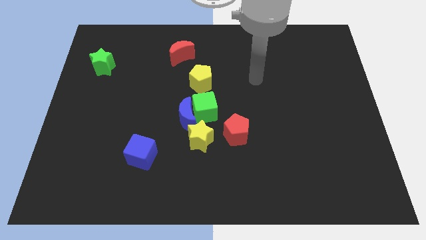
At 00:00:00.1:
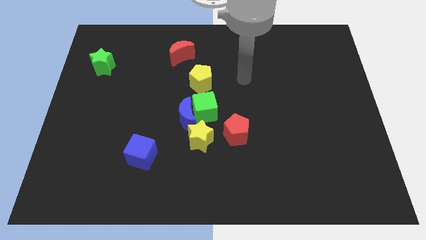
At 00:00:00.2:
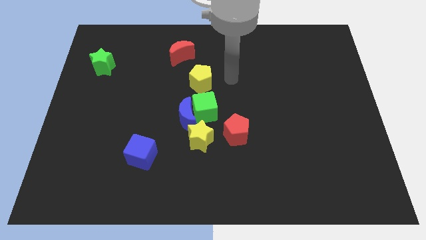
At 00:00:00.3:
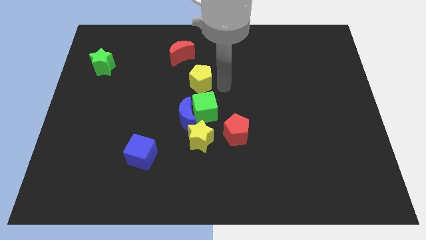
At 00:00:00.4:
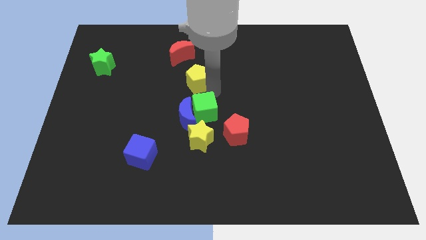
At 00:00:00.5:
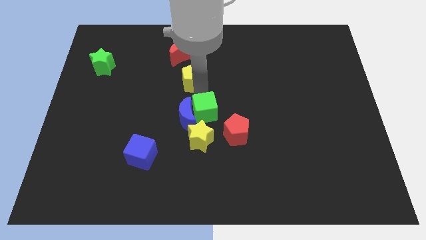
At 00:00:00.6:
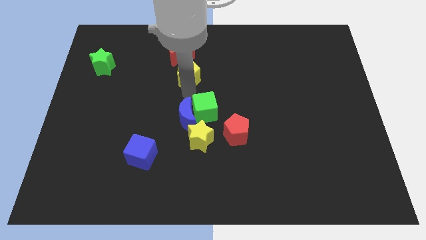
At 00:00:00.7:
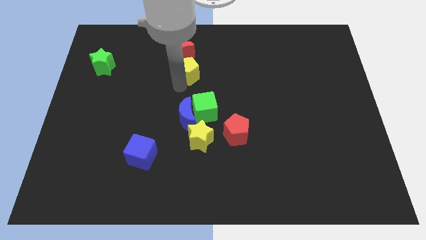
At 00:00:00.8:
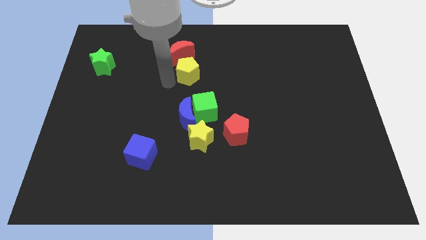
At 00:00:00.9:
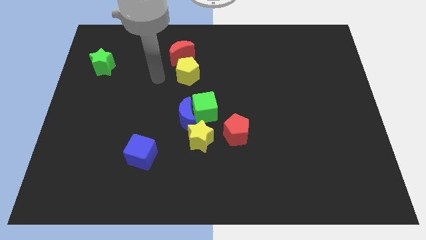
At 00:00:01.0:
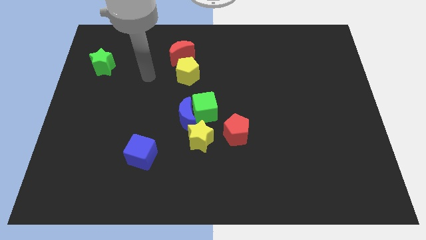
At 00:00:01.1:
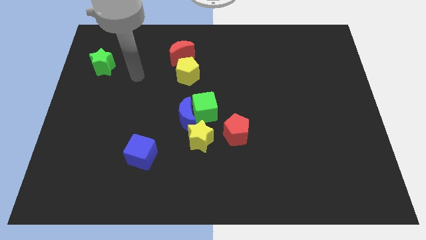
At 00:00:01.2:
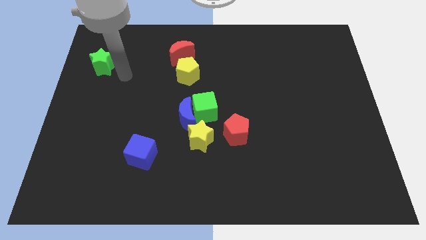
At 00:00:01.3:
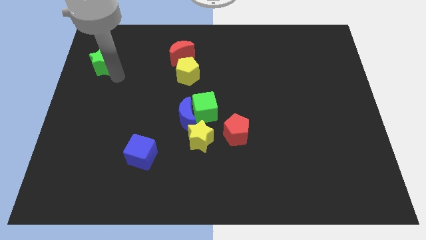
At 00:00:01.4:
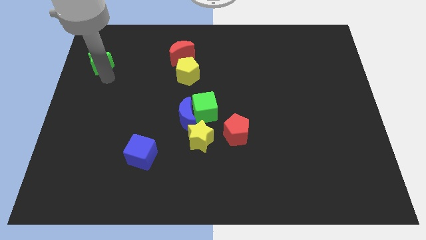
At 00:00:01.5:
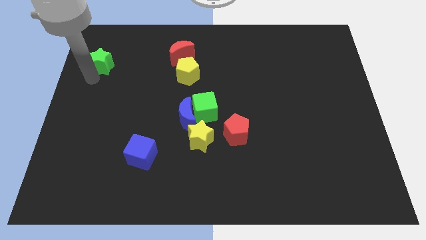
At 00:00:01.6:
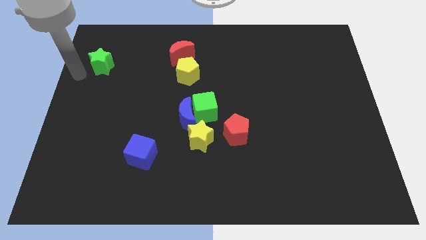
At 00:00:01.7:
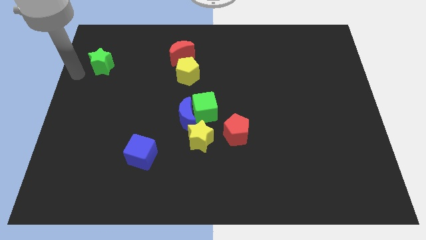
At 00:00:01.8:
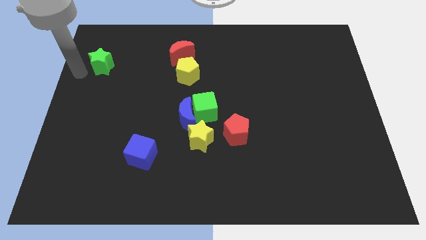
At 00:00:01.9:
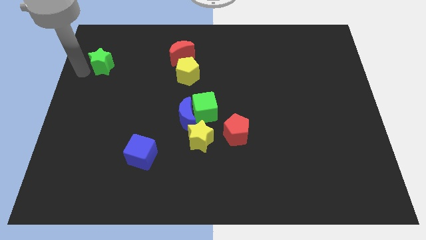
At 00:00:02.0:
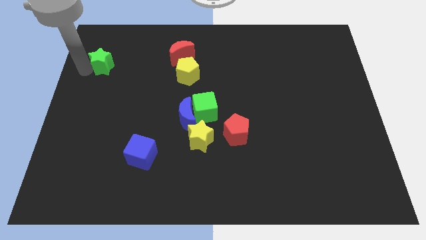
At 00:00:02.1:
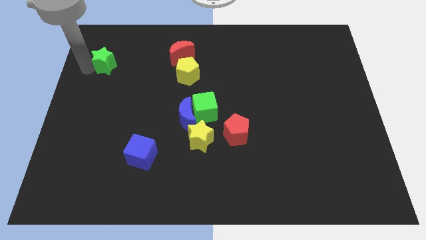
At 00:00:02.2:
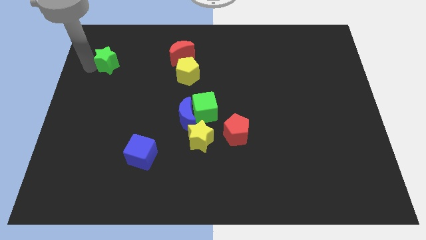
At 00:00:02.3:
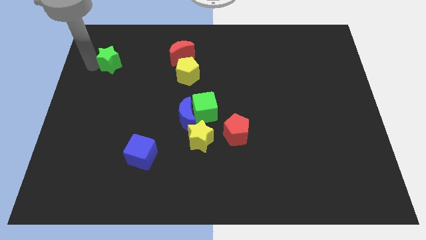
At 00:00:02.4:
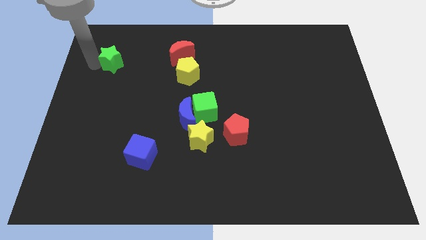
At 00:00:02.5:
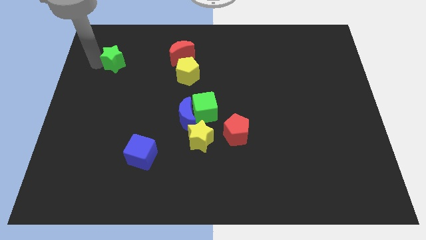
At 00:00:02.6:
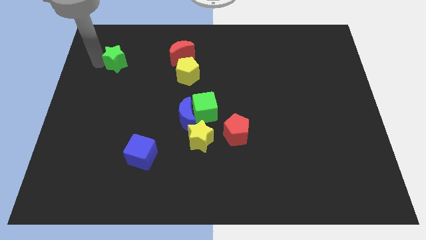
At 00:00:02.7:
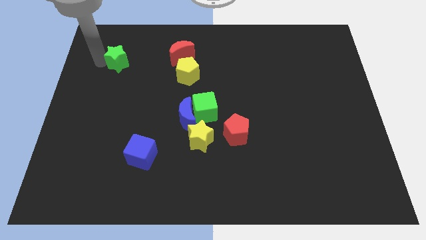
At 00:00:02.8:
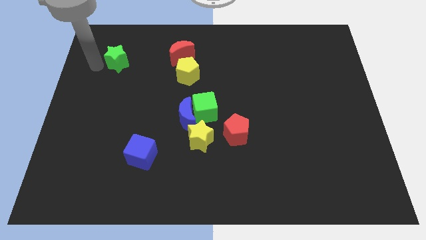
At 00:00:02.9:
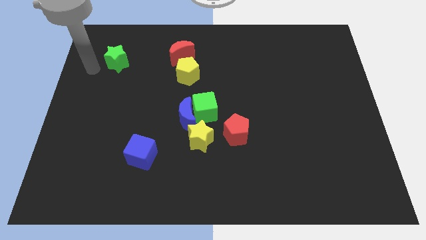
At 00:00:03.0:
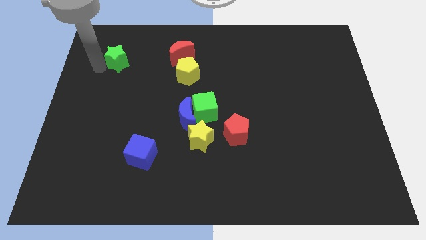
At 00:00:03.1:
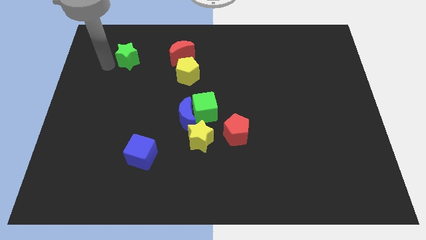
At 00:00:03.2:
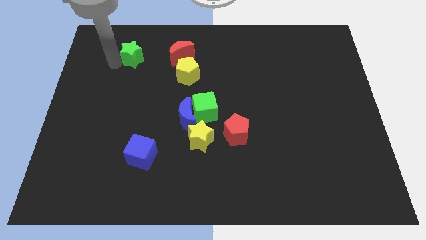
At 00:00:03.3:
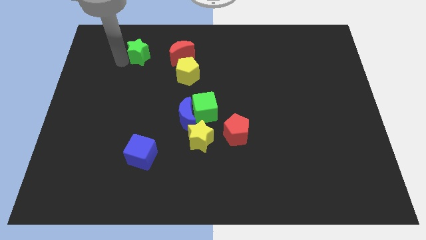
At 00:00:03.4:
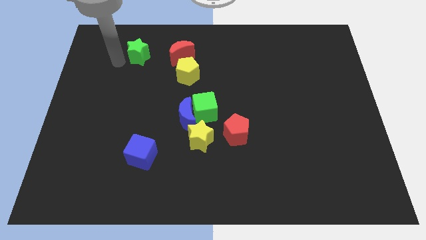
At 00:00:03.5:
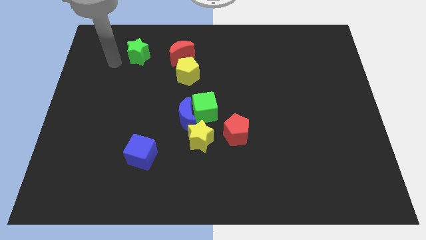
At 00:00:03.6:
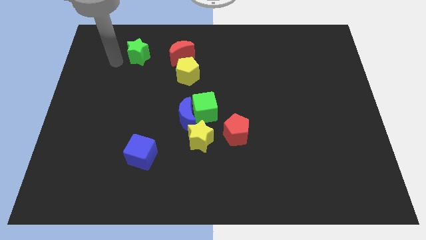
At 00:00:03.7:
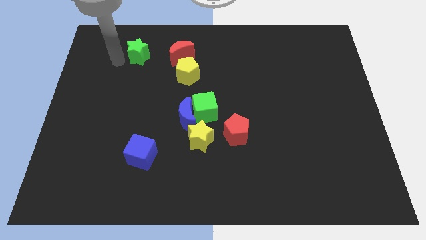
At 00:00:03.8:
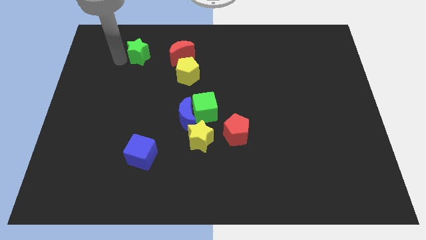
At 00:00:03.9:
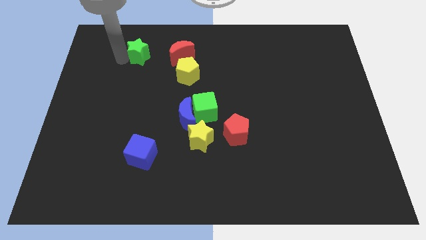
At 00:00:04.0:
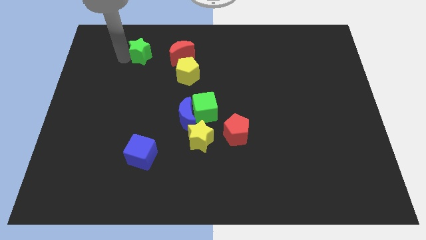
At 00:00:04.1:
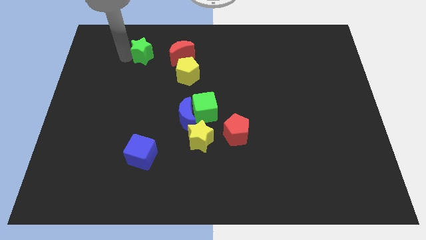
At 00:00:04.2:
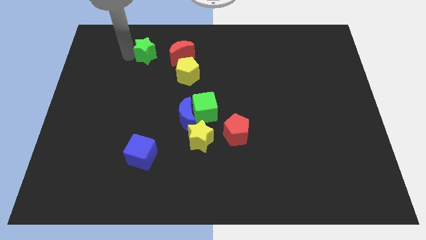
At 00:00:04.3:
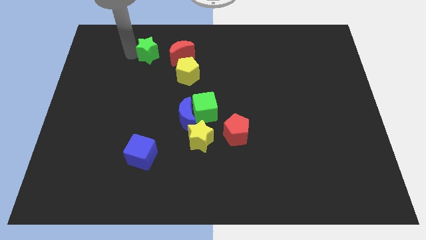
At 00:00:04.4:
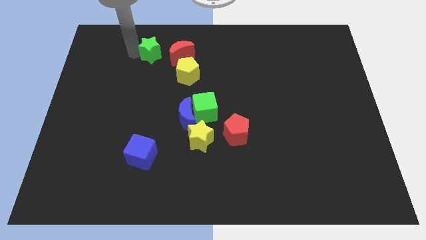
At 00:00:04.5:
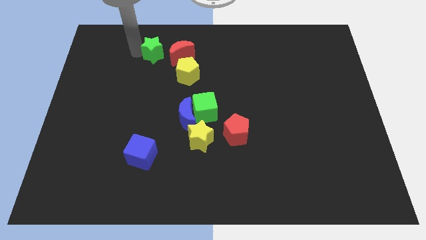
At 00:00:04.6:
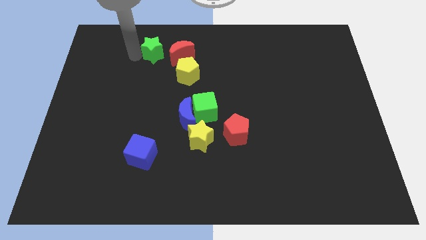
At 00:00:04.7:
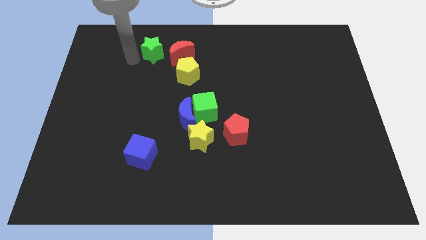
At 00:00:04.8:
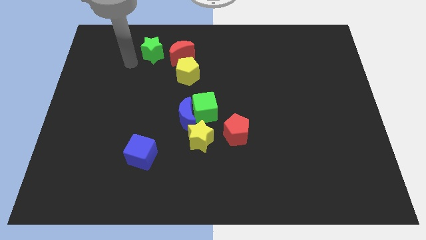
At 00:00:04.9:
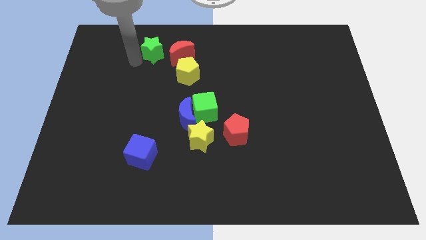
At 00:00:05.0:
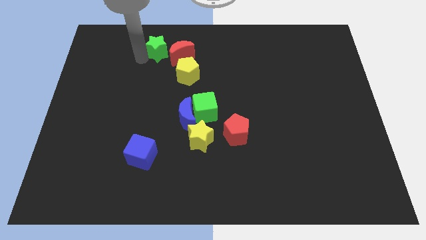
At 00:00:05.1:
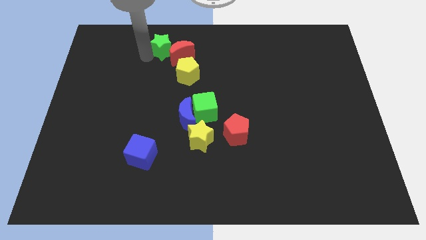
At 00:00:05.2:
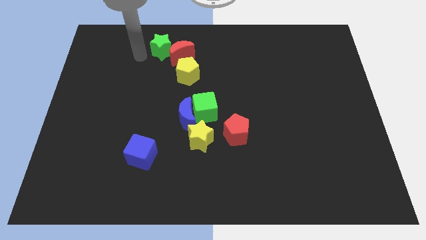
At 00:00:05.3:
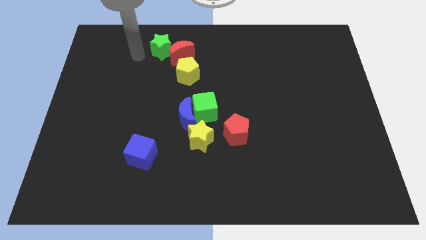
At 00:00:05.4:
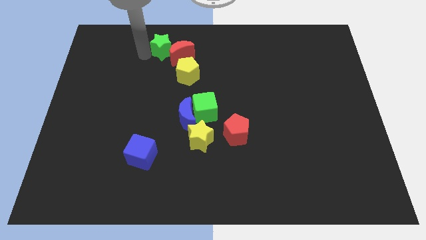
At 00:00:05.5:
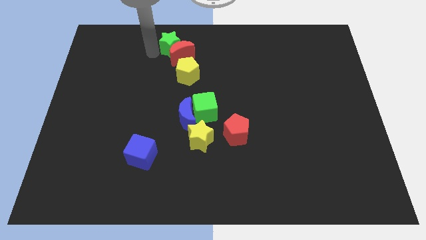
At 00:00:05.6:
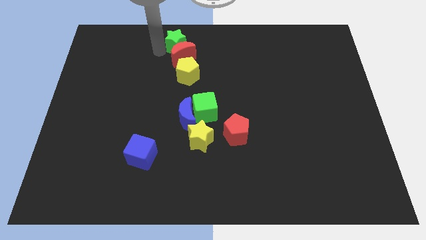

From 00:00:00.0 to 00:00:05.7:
push the green star to the top
